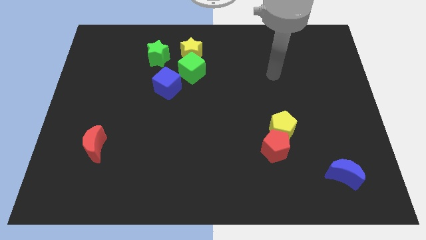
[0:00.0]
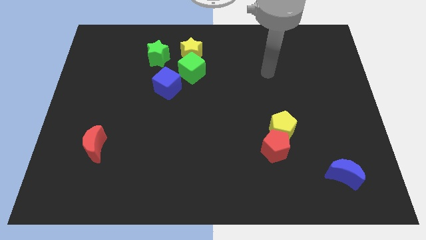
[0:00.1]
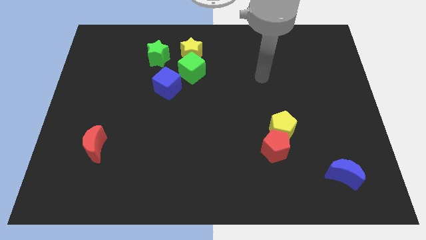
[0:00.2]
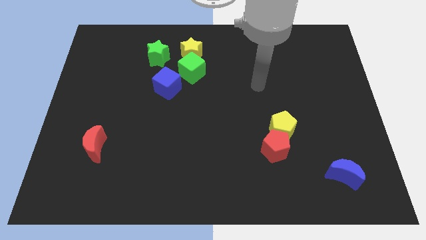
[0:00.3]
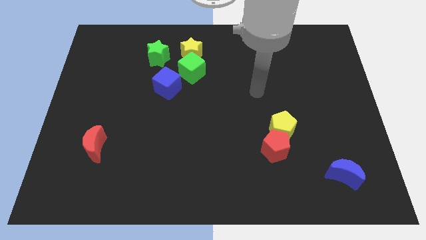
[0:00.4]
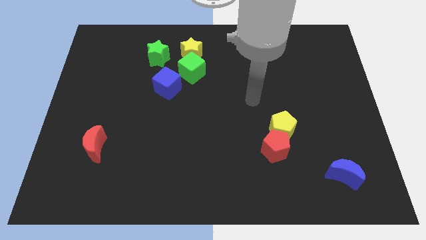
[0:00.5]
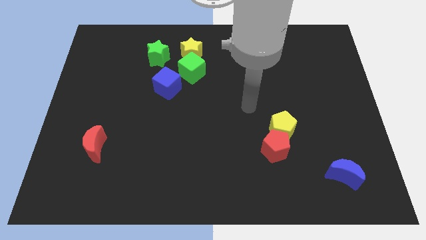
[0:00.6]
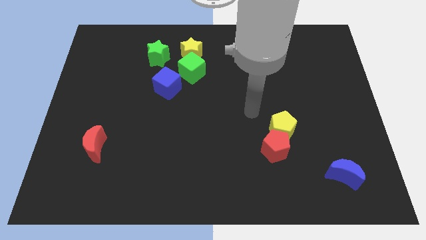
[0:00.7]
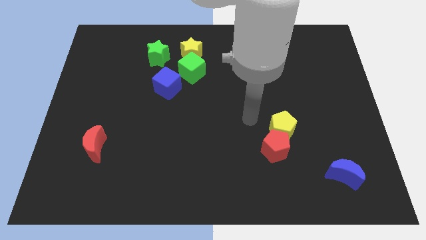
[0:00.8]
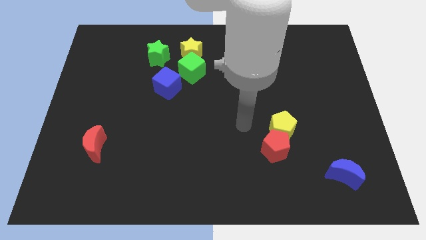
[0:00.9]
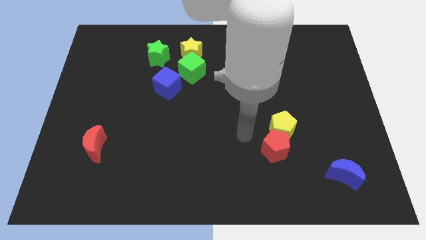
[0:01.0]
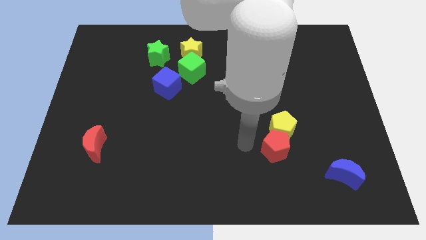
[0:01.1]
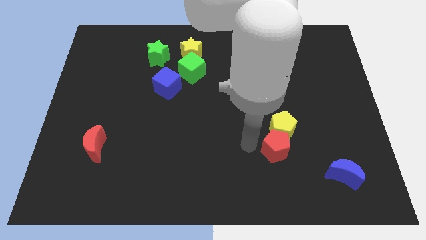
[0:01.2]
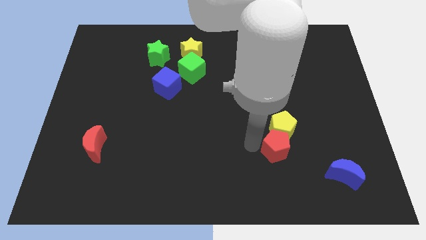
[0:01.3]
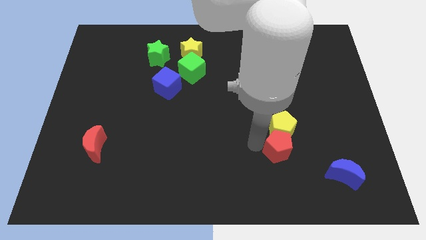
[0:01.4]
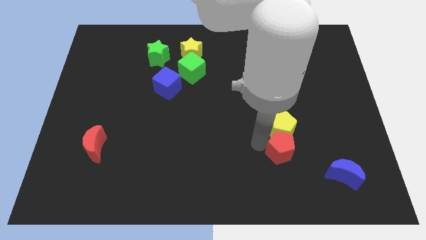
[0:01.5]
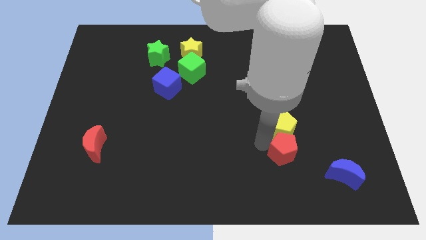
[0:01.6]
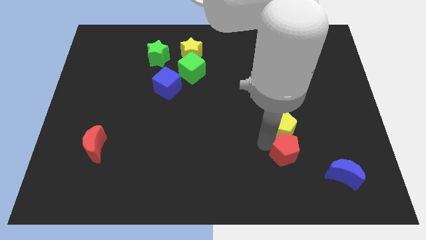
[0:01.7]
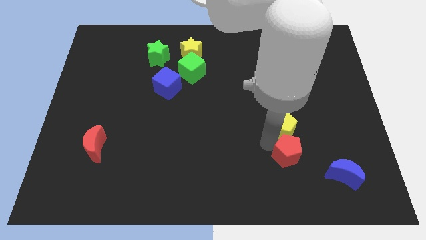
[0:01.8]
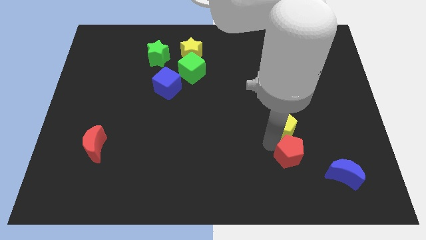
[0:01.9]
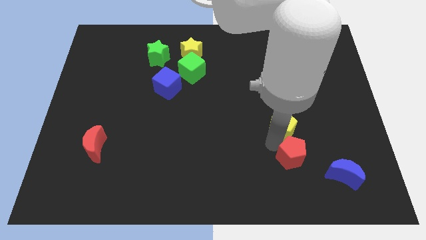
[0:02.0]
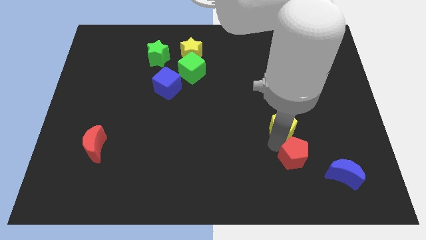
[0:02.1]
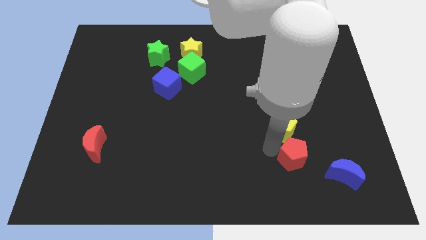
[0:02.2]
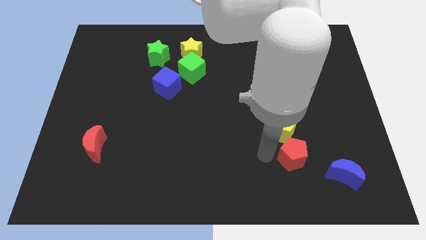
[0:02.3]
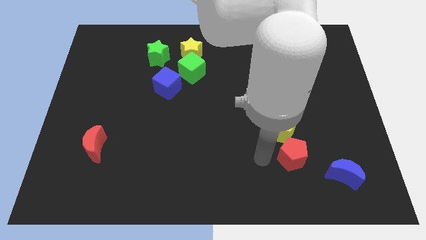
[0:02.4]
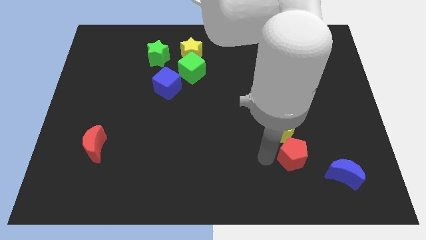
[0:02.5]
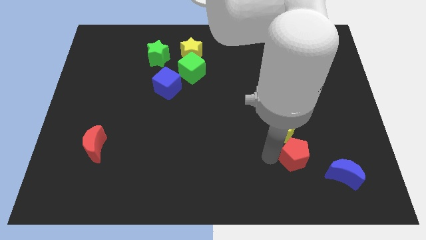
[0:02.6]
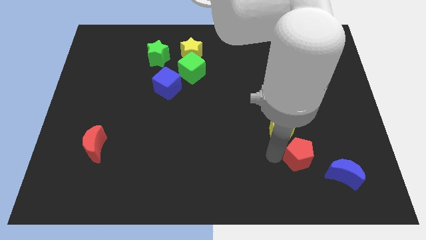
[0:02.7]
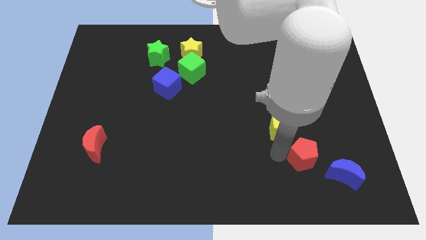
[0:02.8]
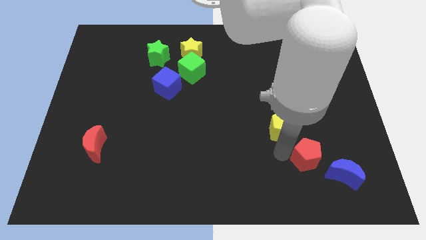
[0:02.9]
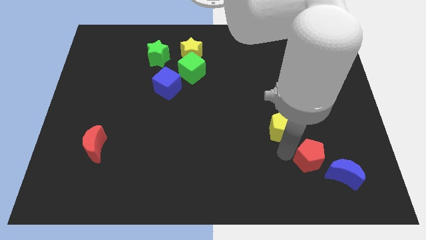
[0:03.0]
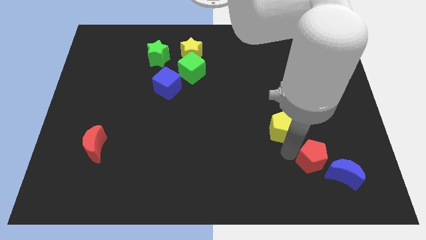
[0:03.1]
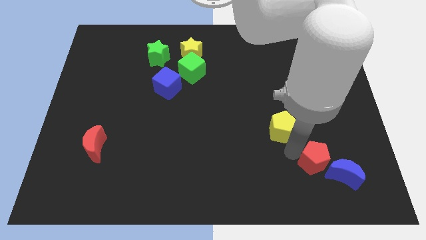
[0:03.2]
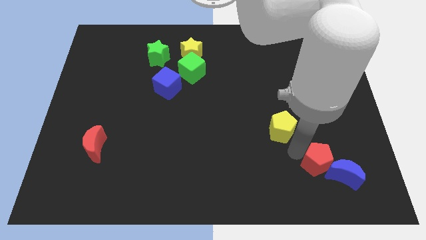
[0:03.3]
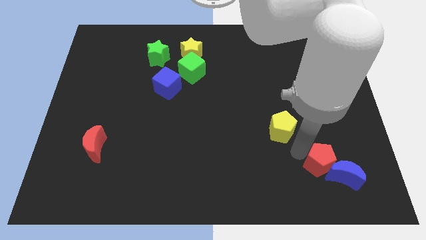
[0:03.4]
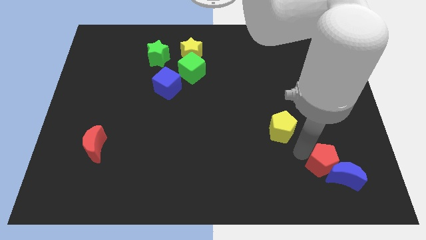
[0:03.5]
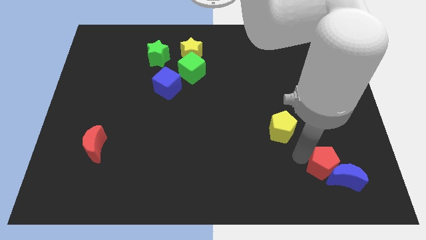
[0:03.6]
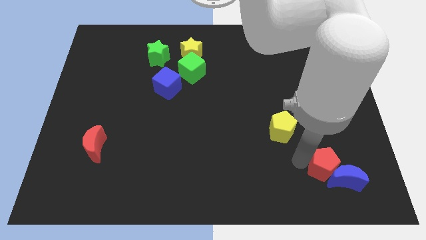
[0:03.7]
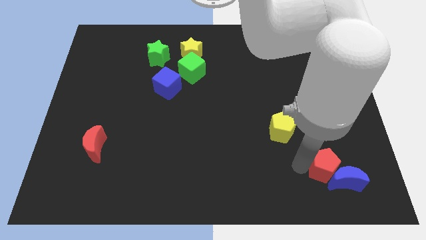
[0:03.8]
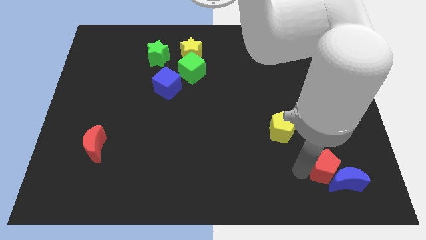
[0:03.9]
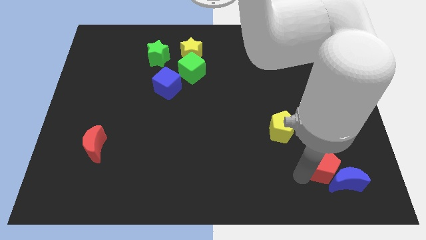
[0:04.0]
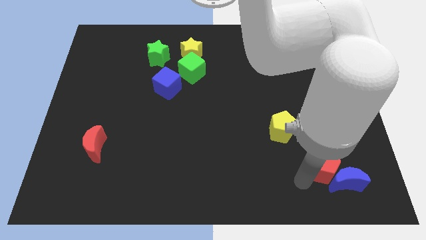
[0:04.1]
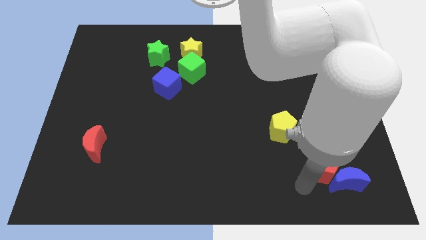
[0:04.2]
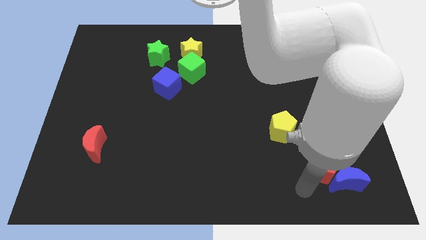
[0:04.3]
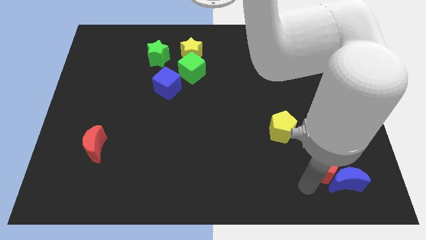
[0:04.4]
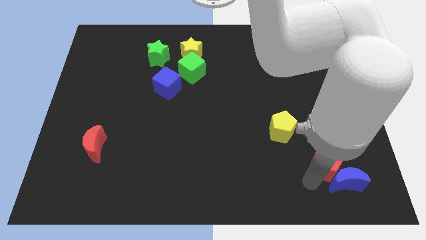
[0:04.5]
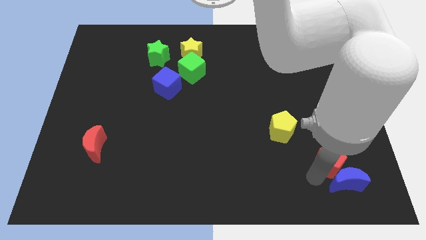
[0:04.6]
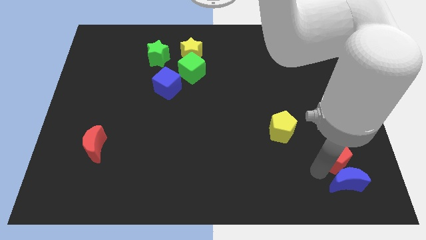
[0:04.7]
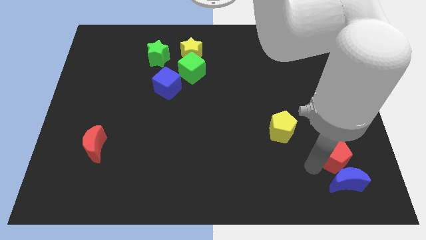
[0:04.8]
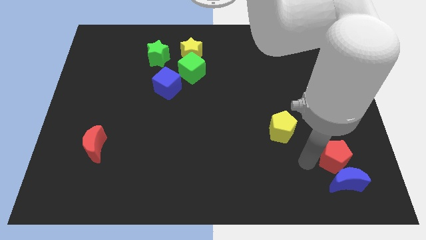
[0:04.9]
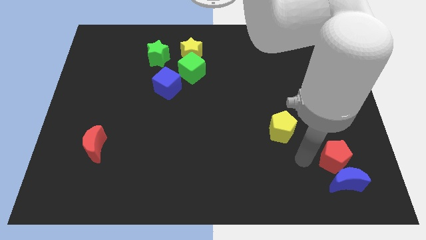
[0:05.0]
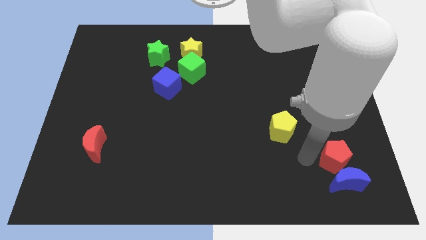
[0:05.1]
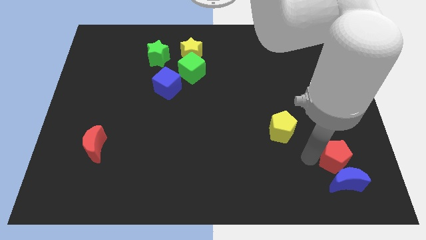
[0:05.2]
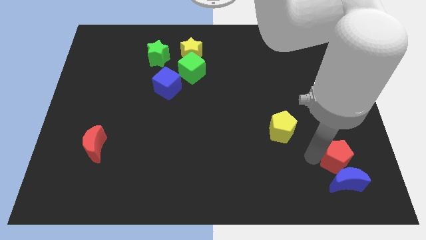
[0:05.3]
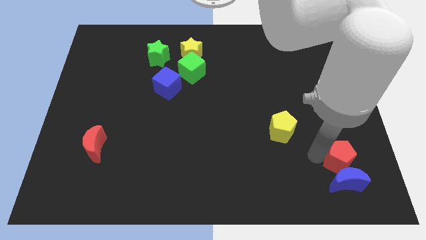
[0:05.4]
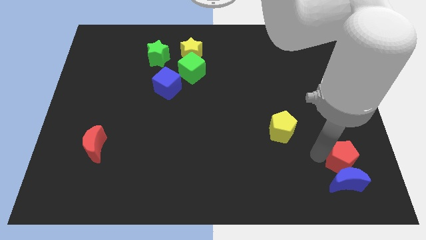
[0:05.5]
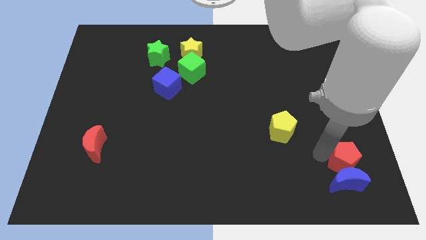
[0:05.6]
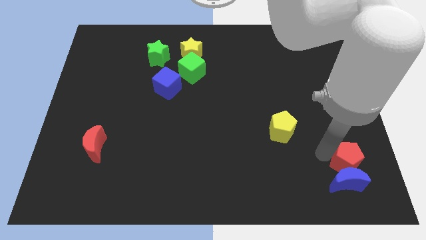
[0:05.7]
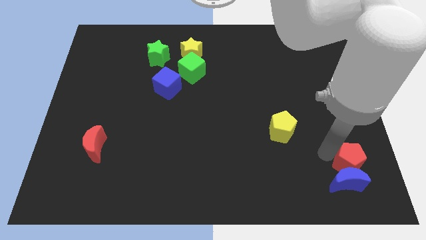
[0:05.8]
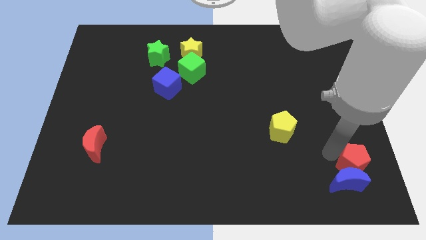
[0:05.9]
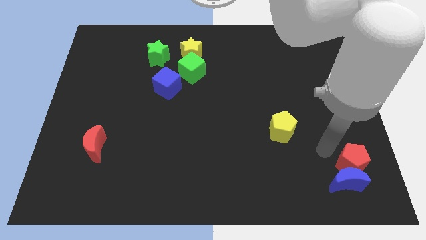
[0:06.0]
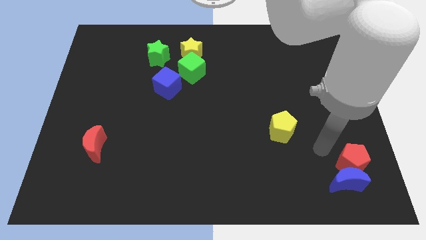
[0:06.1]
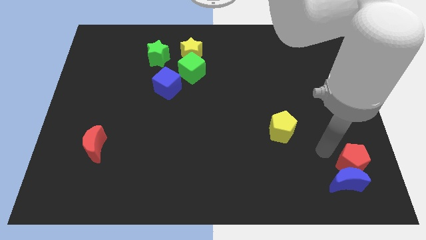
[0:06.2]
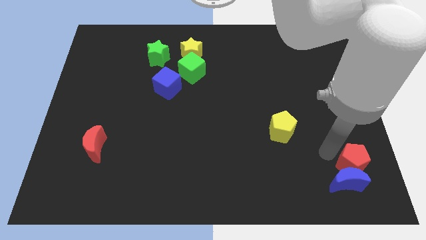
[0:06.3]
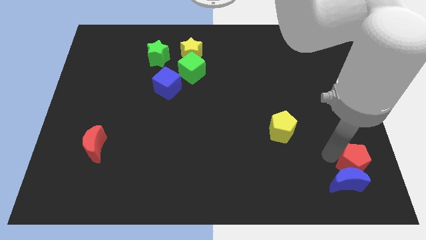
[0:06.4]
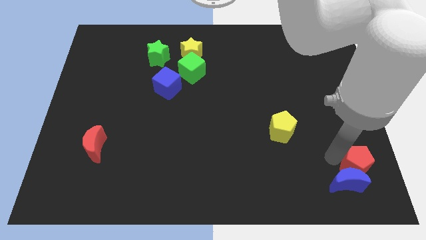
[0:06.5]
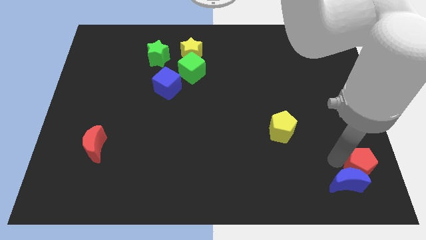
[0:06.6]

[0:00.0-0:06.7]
move the red pentagon to the bottom right of the board

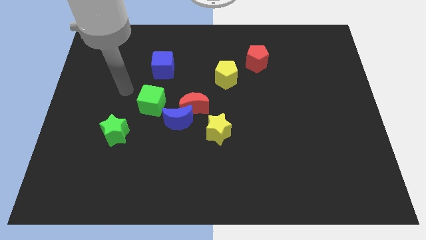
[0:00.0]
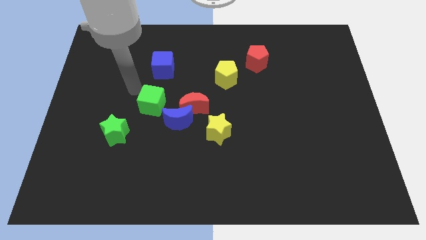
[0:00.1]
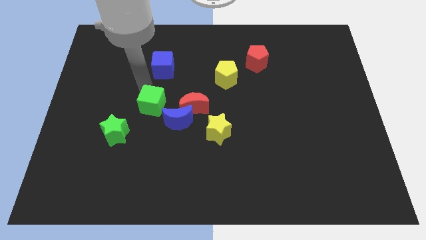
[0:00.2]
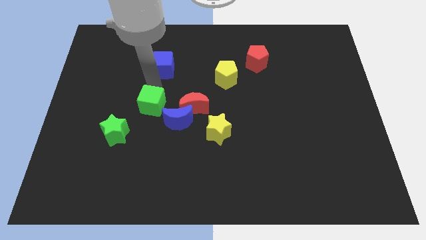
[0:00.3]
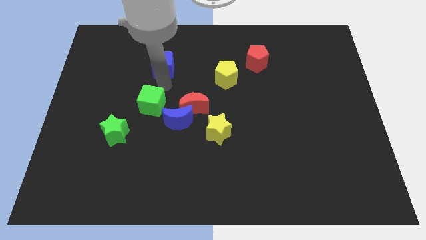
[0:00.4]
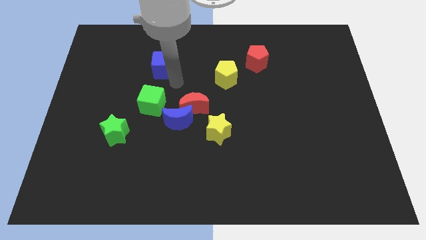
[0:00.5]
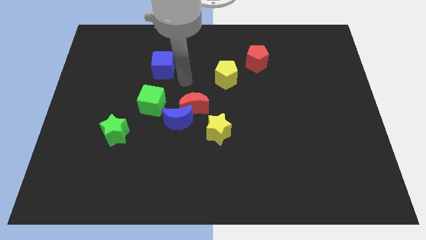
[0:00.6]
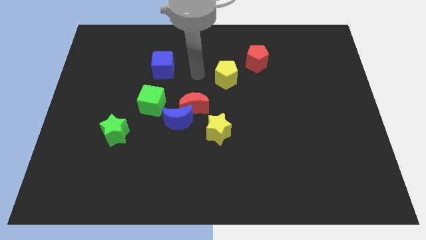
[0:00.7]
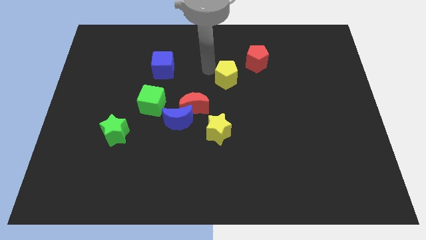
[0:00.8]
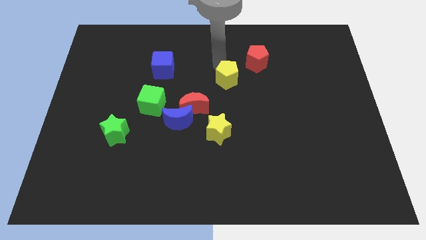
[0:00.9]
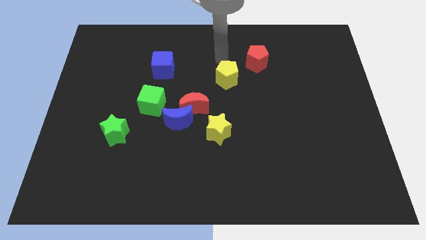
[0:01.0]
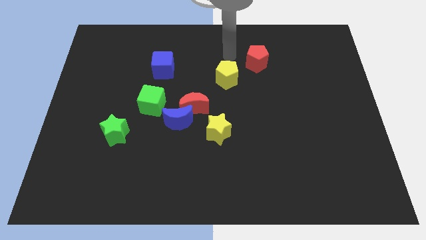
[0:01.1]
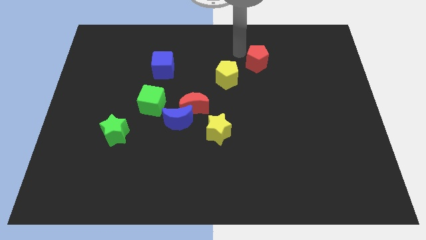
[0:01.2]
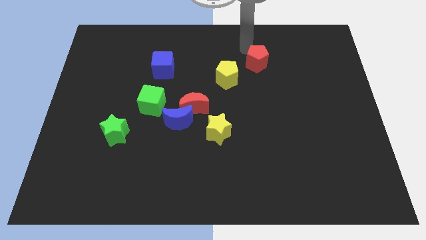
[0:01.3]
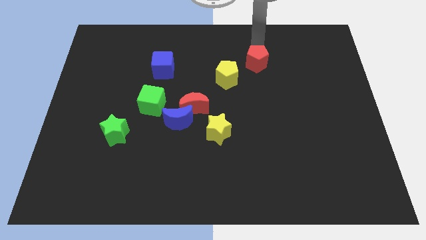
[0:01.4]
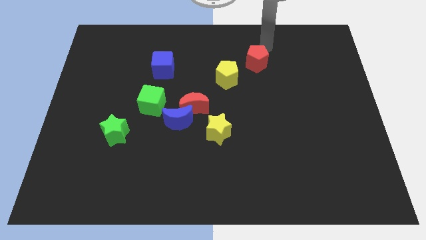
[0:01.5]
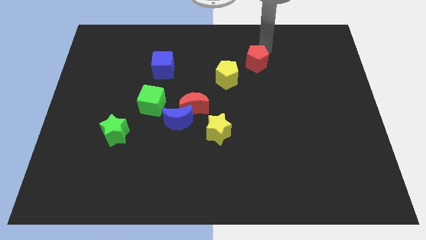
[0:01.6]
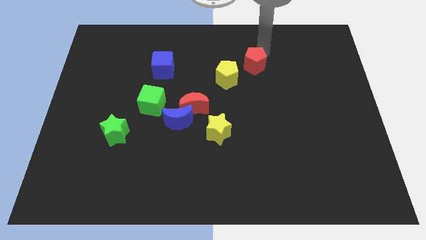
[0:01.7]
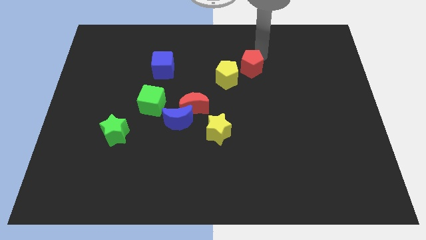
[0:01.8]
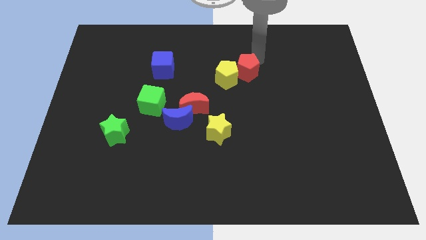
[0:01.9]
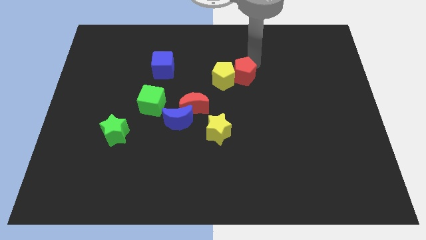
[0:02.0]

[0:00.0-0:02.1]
push the red pentagon to the middle
